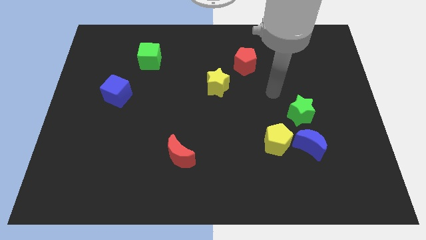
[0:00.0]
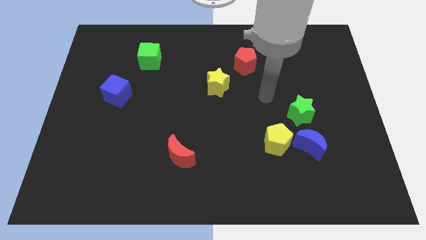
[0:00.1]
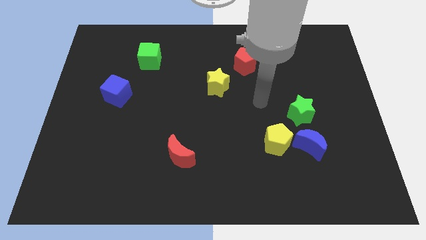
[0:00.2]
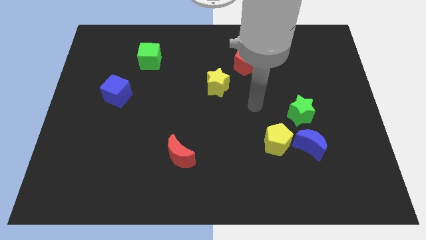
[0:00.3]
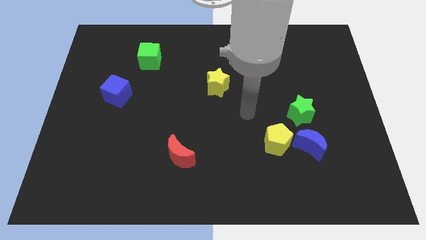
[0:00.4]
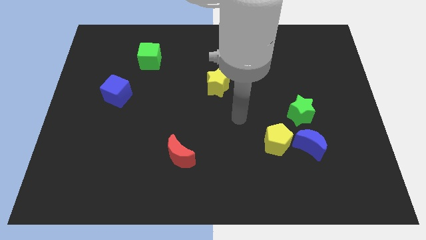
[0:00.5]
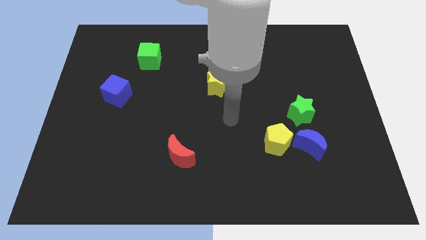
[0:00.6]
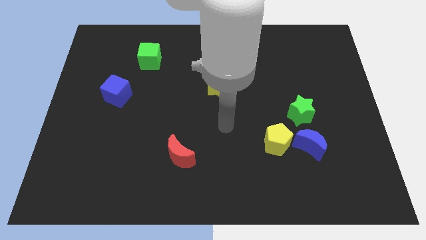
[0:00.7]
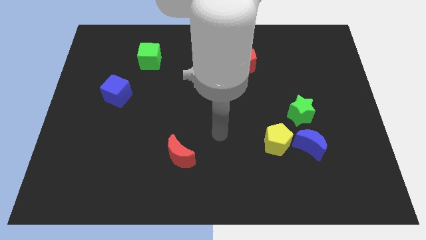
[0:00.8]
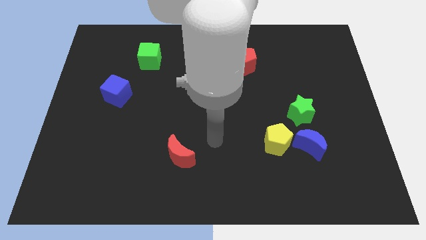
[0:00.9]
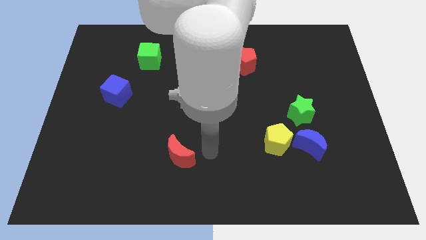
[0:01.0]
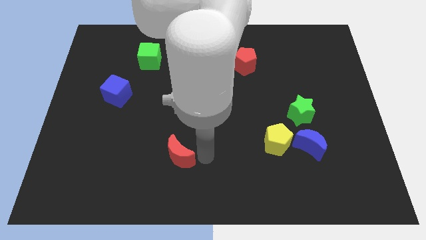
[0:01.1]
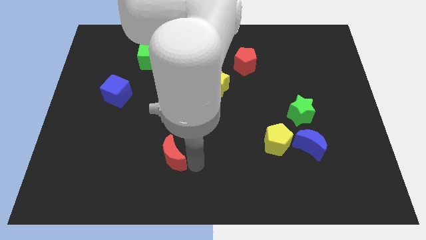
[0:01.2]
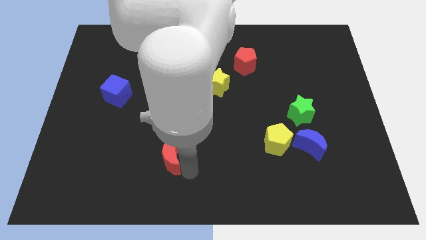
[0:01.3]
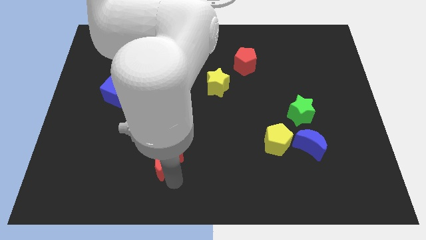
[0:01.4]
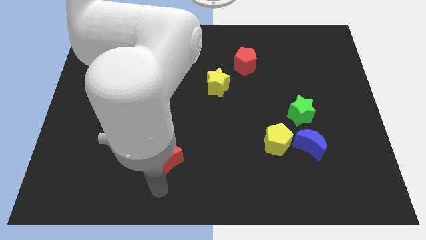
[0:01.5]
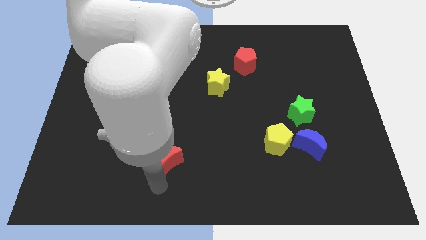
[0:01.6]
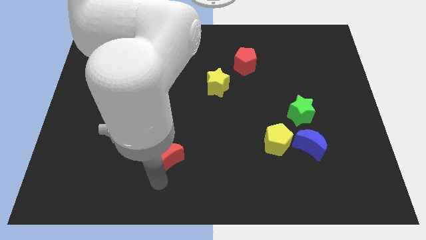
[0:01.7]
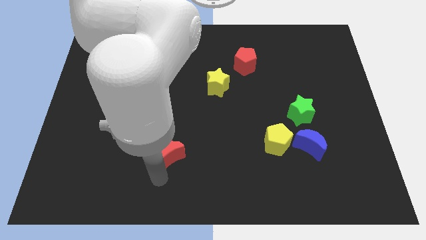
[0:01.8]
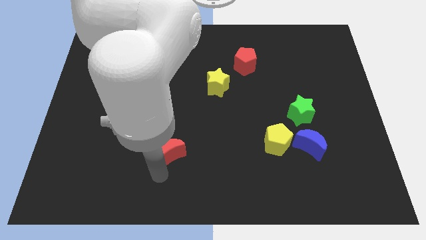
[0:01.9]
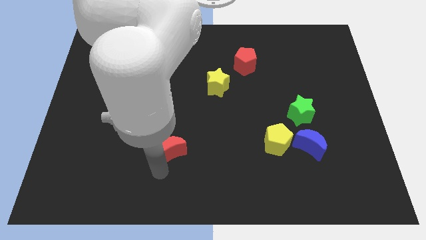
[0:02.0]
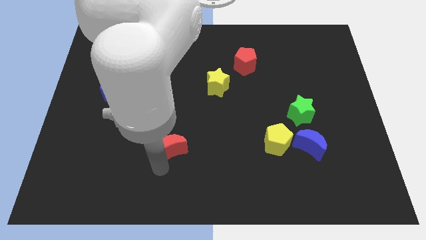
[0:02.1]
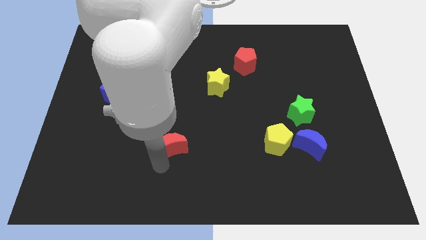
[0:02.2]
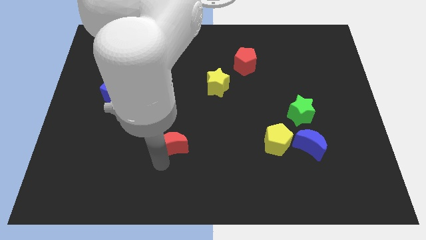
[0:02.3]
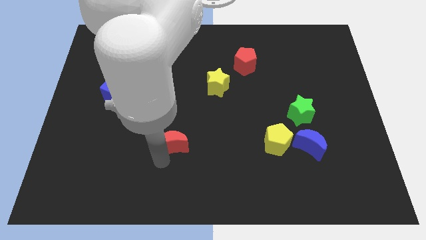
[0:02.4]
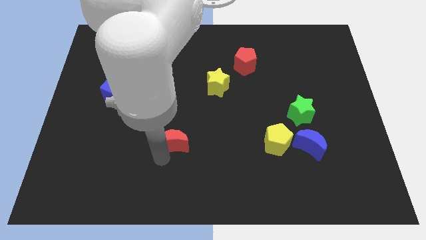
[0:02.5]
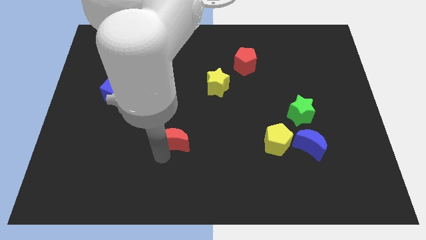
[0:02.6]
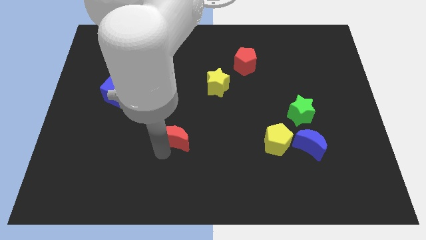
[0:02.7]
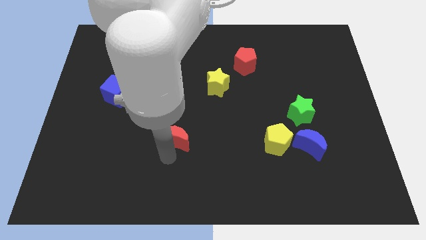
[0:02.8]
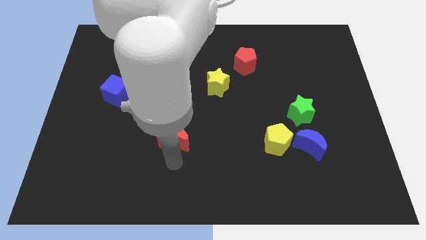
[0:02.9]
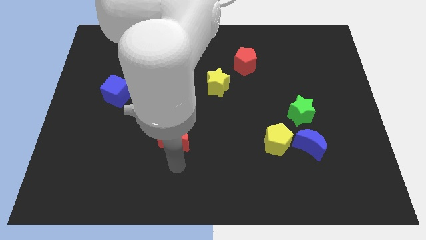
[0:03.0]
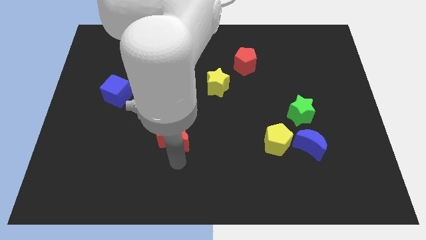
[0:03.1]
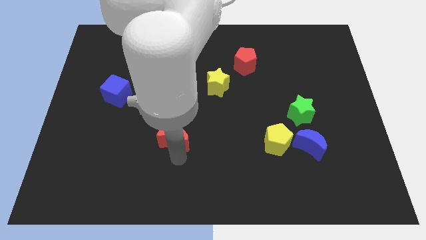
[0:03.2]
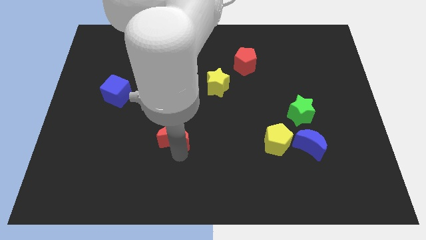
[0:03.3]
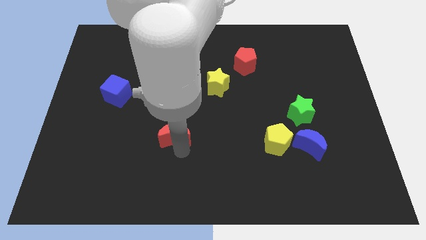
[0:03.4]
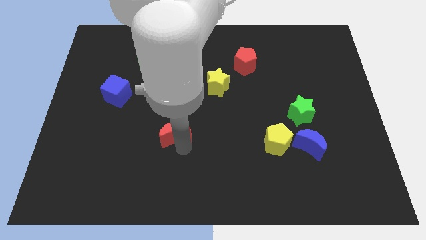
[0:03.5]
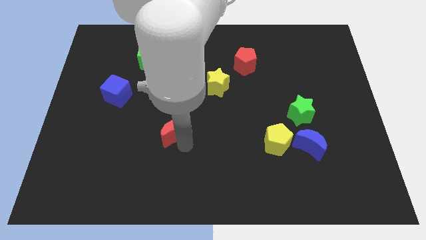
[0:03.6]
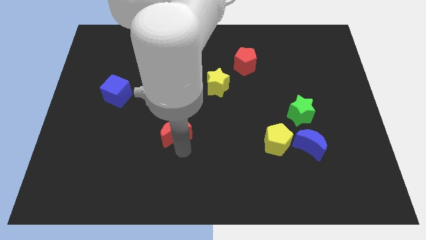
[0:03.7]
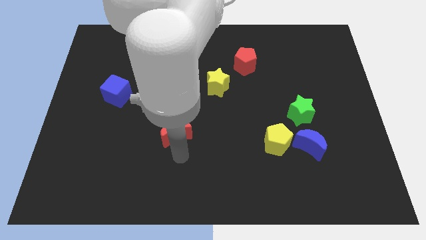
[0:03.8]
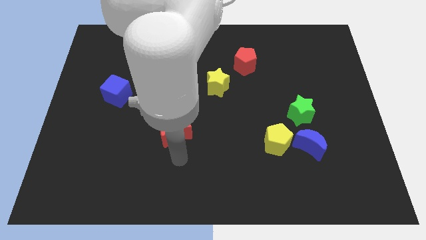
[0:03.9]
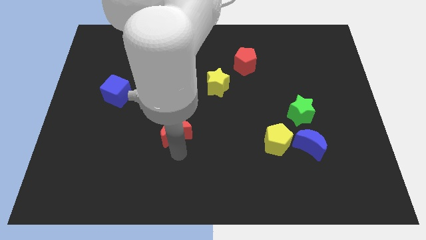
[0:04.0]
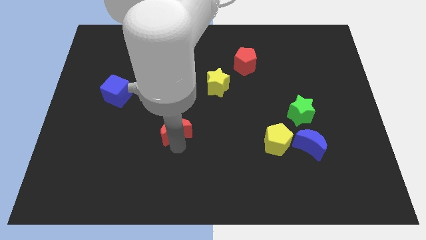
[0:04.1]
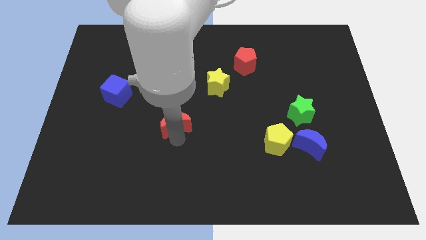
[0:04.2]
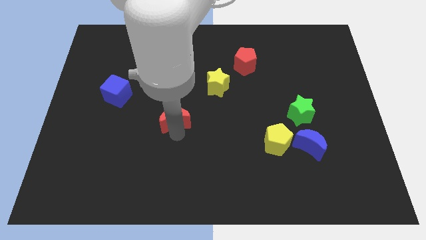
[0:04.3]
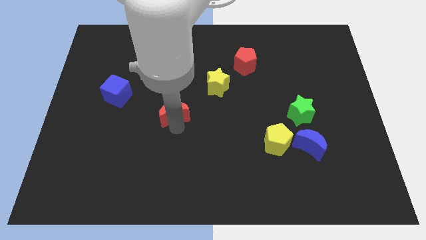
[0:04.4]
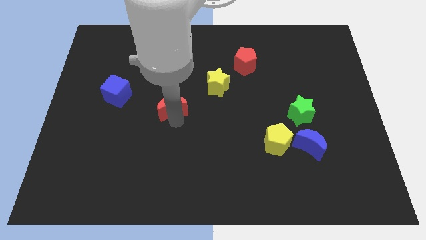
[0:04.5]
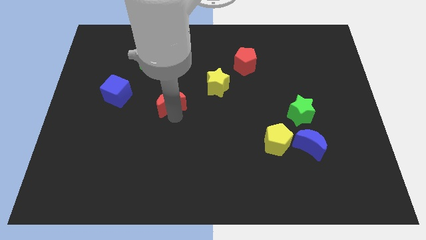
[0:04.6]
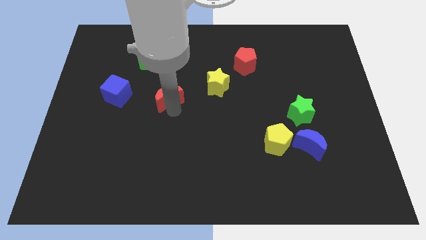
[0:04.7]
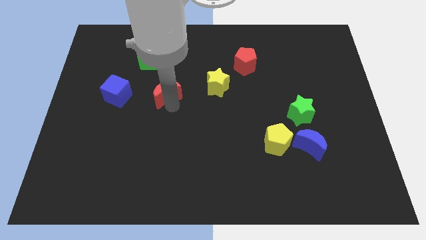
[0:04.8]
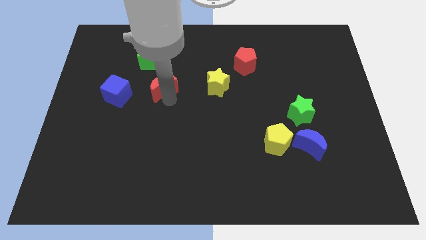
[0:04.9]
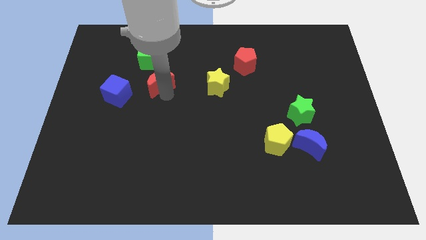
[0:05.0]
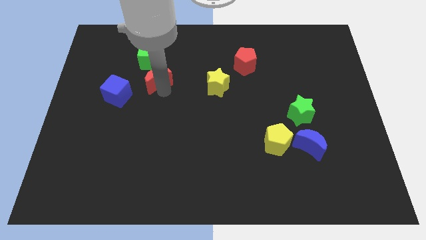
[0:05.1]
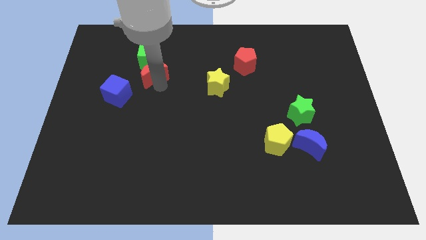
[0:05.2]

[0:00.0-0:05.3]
slide the red moon towards the green cube

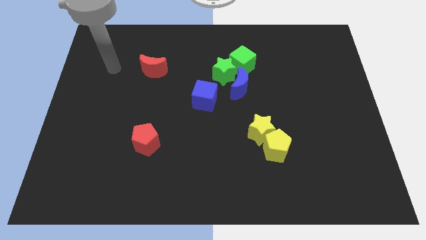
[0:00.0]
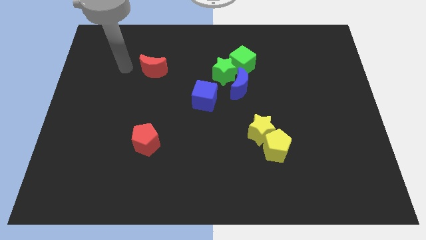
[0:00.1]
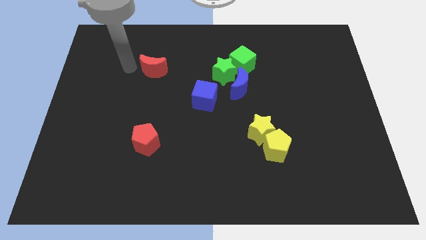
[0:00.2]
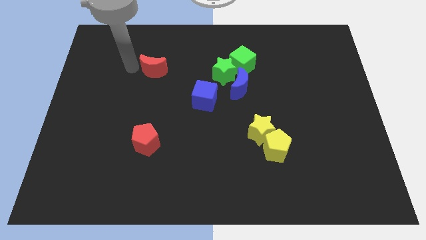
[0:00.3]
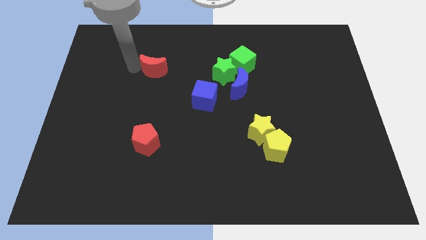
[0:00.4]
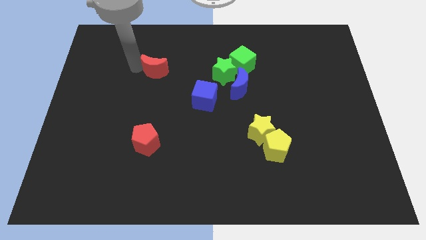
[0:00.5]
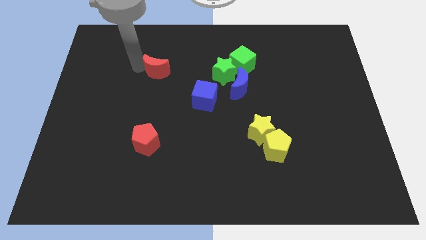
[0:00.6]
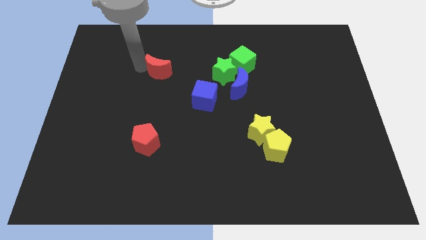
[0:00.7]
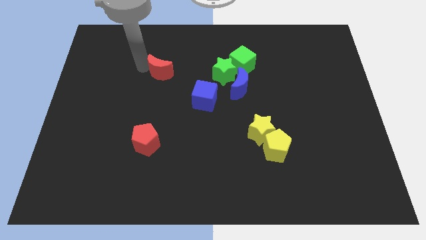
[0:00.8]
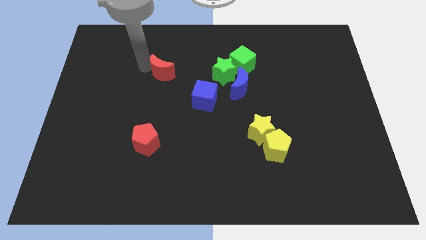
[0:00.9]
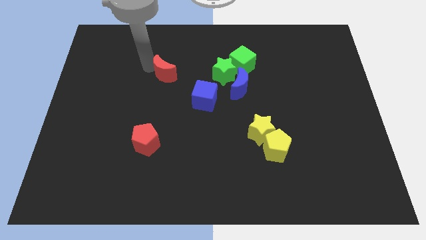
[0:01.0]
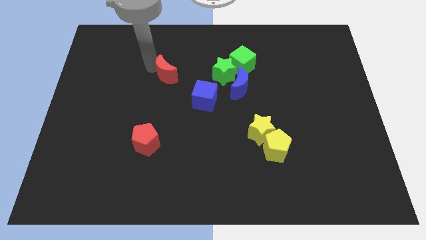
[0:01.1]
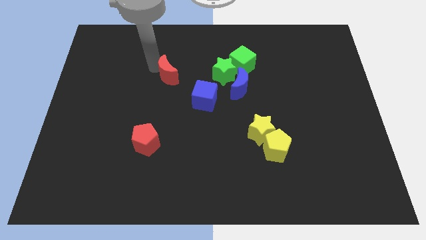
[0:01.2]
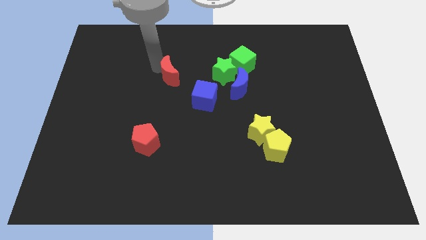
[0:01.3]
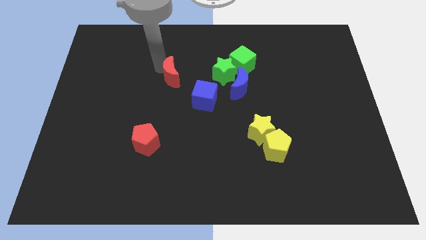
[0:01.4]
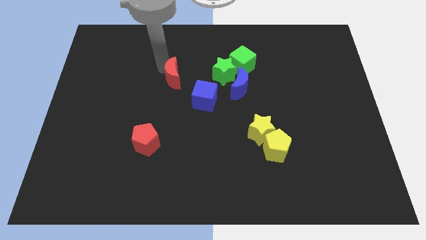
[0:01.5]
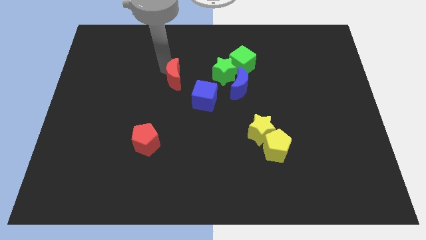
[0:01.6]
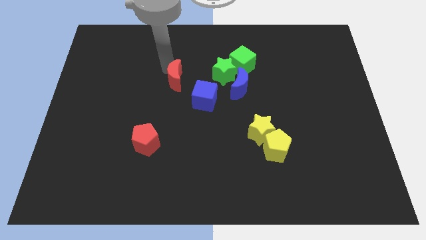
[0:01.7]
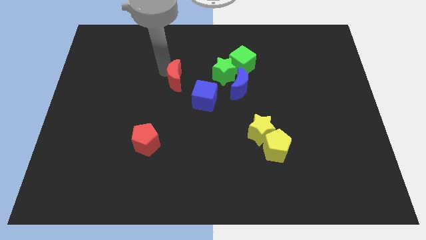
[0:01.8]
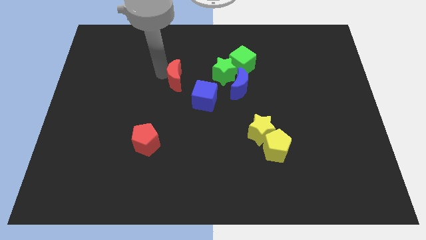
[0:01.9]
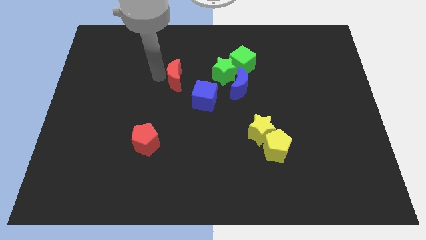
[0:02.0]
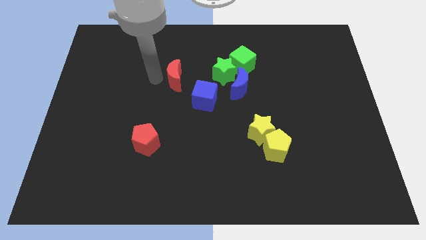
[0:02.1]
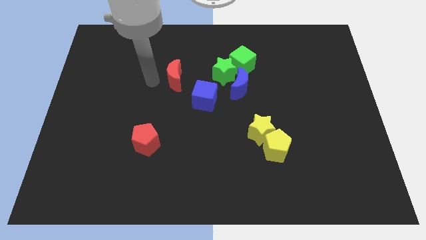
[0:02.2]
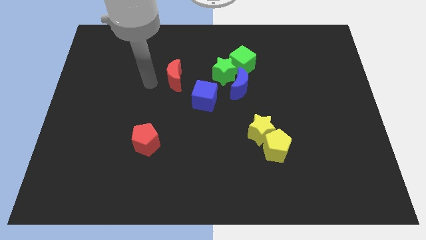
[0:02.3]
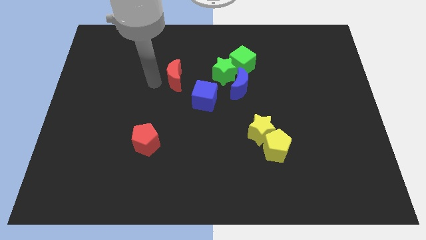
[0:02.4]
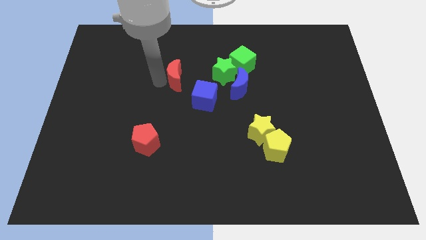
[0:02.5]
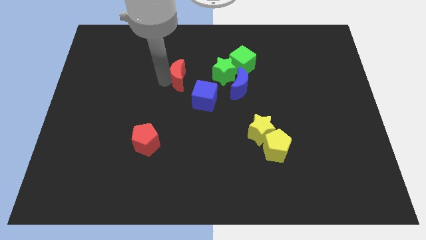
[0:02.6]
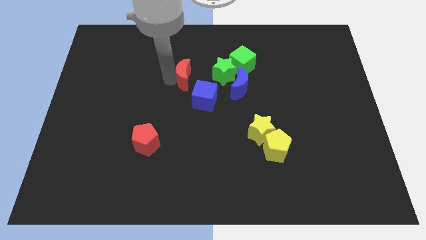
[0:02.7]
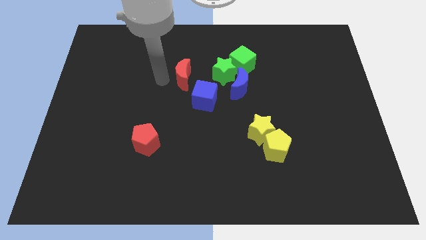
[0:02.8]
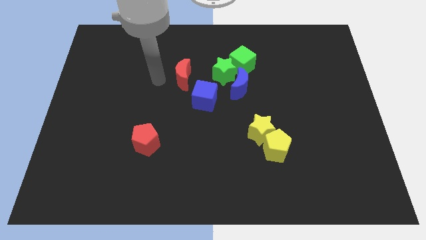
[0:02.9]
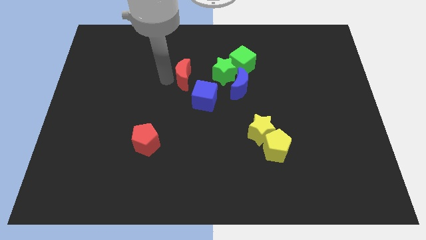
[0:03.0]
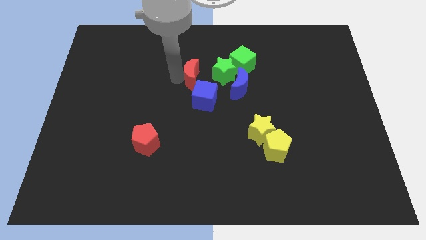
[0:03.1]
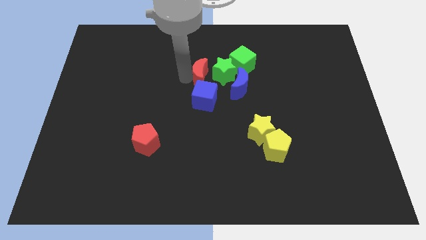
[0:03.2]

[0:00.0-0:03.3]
push the red moon close to the green star
